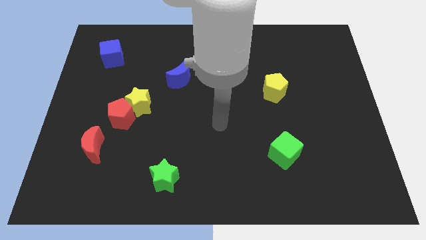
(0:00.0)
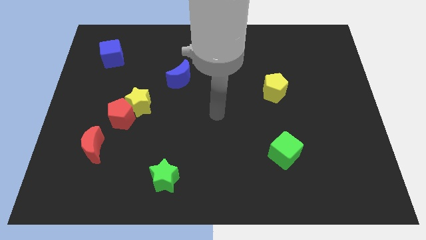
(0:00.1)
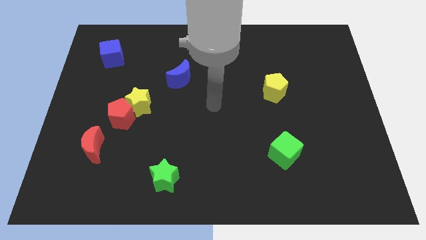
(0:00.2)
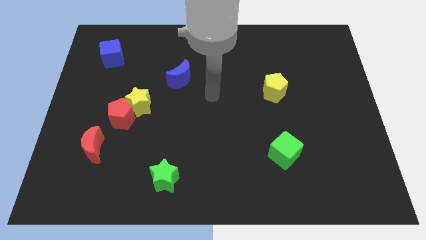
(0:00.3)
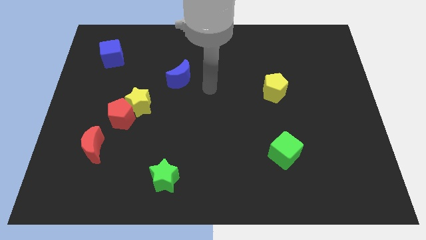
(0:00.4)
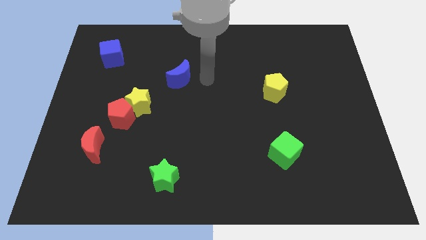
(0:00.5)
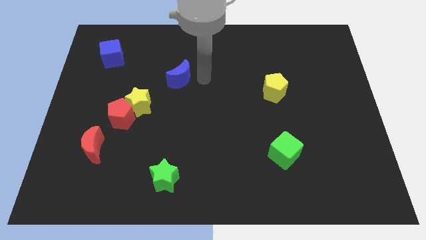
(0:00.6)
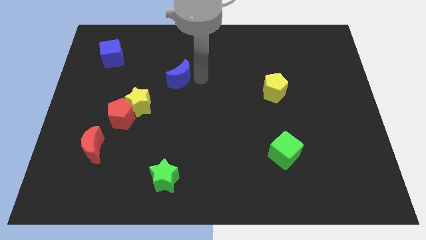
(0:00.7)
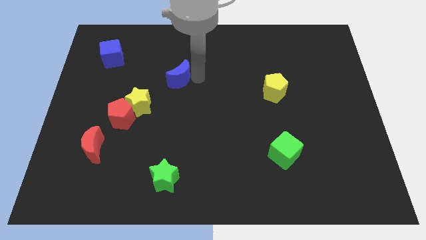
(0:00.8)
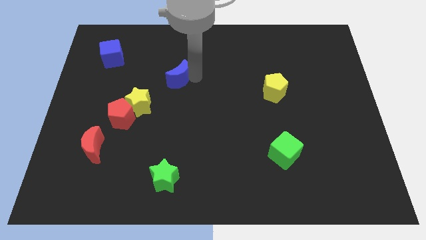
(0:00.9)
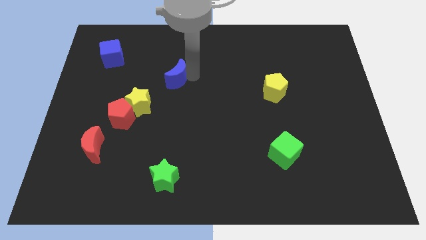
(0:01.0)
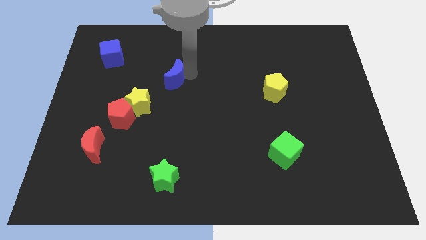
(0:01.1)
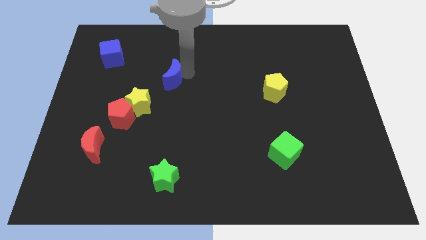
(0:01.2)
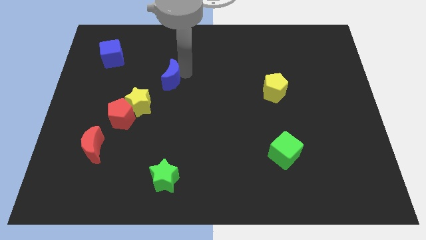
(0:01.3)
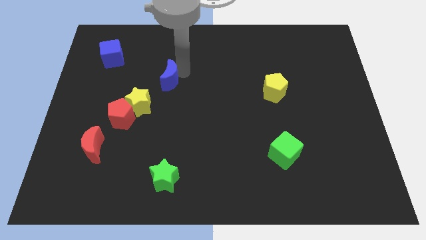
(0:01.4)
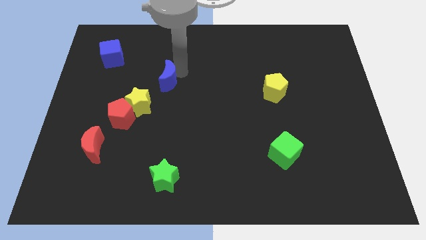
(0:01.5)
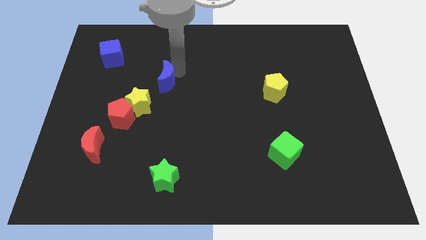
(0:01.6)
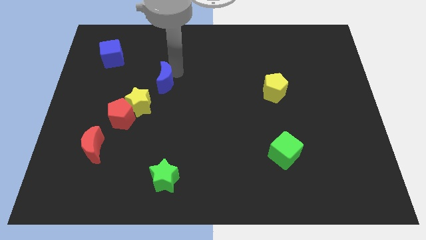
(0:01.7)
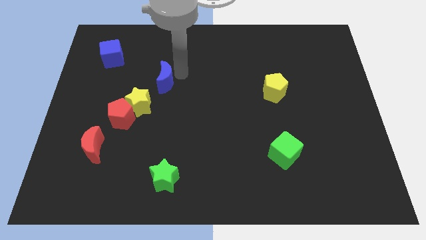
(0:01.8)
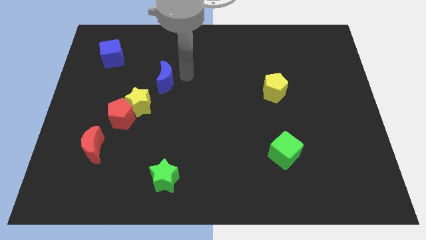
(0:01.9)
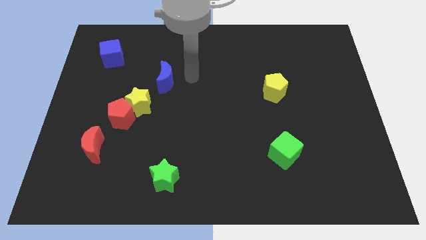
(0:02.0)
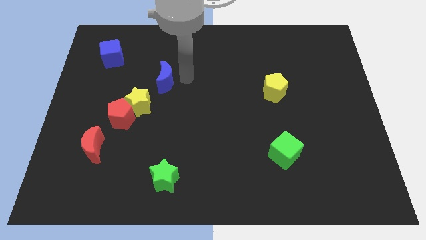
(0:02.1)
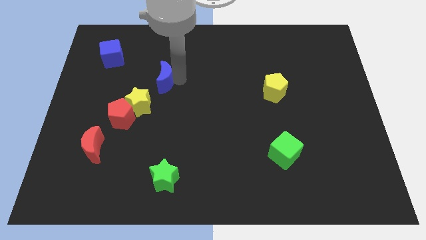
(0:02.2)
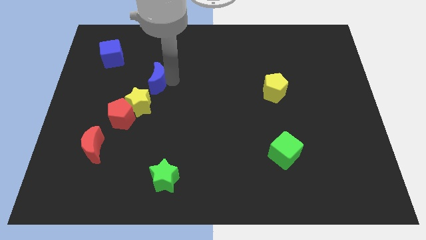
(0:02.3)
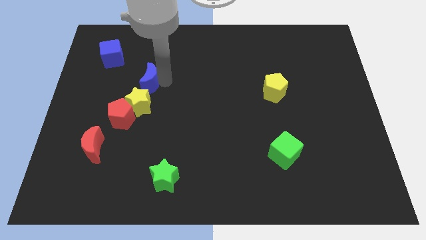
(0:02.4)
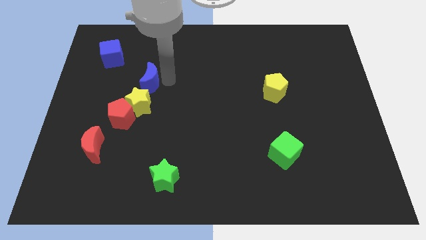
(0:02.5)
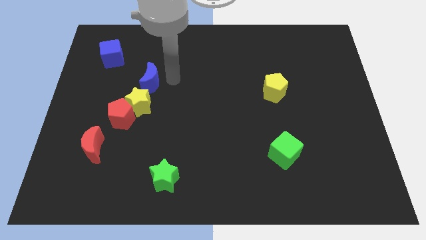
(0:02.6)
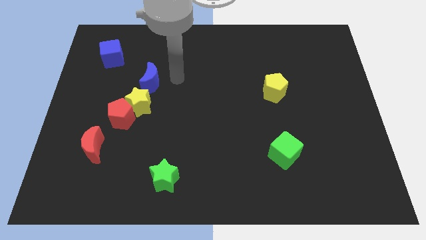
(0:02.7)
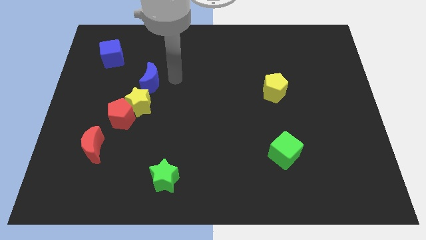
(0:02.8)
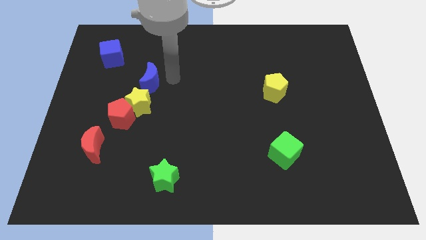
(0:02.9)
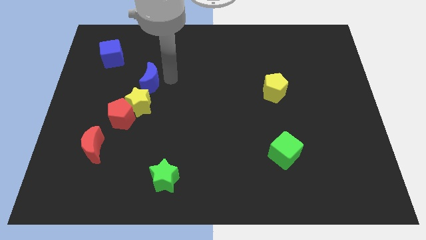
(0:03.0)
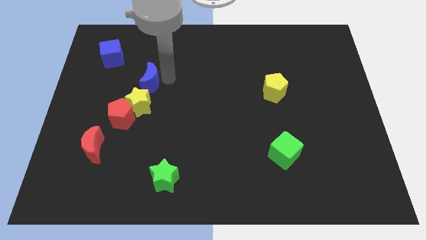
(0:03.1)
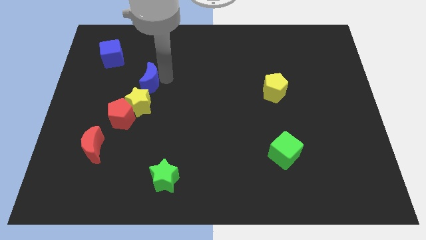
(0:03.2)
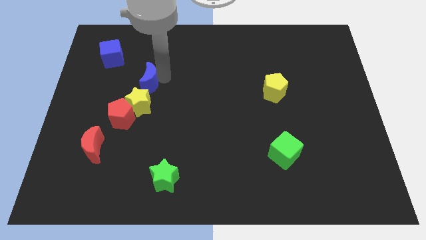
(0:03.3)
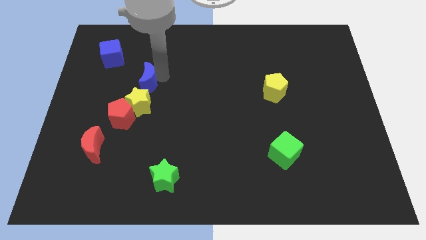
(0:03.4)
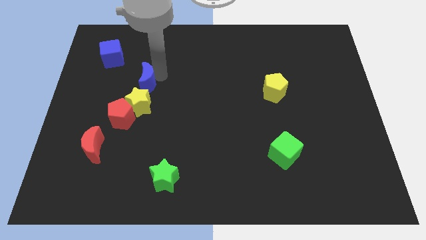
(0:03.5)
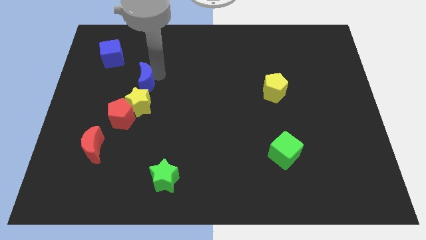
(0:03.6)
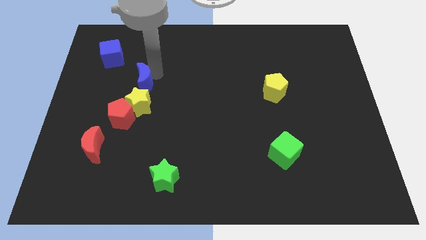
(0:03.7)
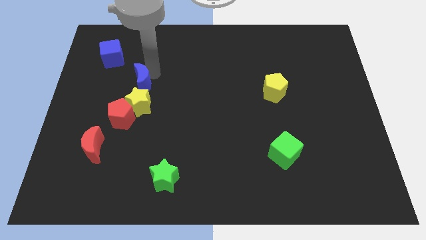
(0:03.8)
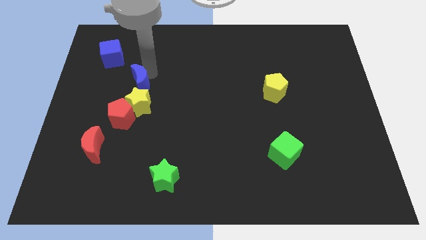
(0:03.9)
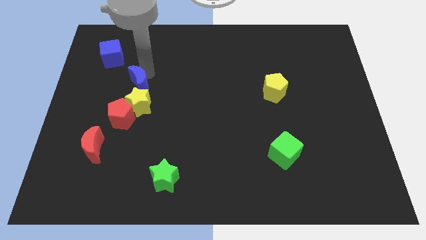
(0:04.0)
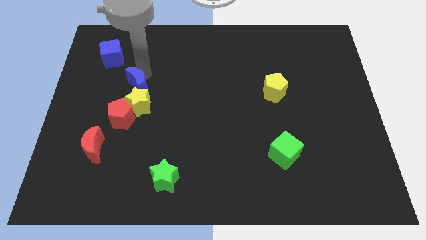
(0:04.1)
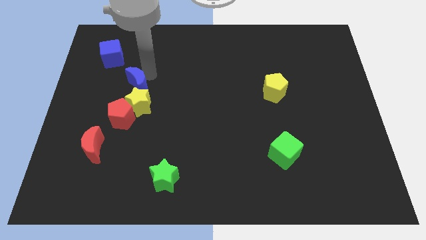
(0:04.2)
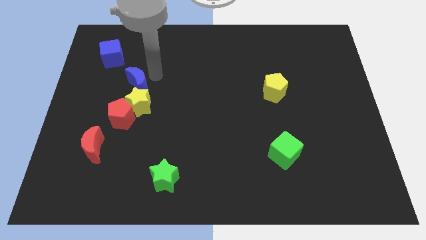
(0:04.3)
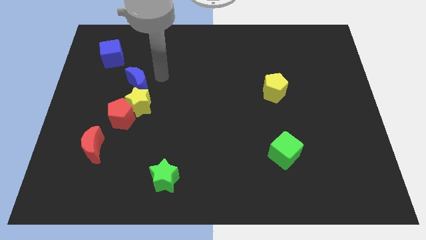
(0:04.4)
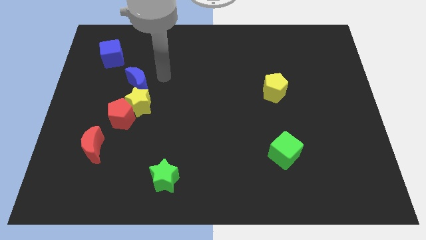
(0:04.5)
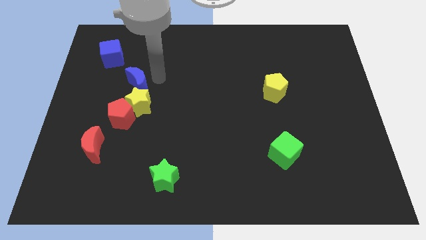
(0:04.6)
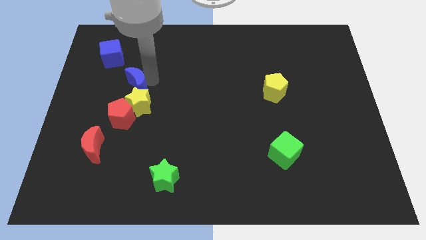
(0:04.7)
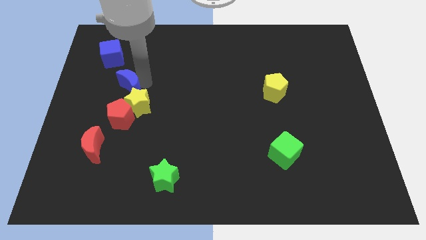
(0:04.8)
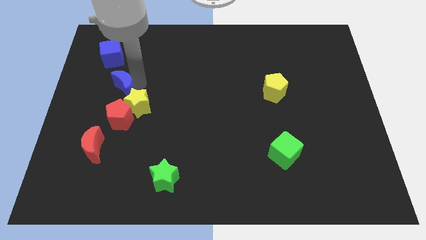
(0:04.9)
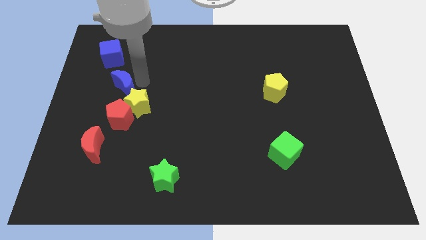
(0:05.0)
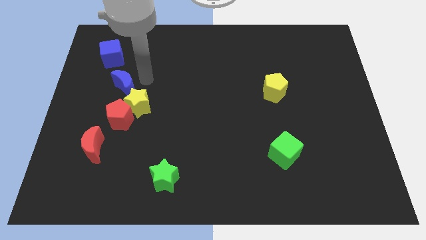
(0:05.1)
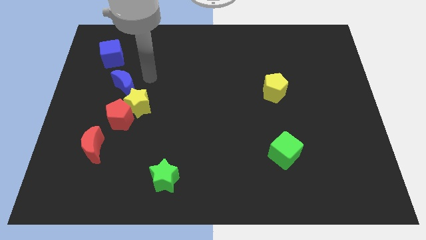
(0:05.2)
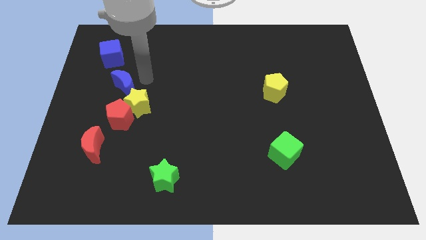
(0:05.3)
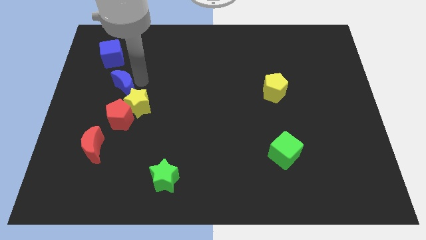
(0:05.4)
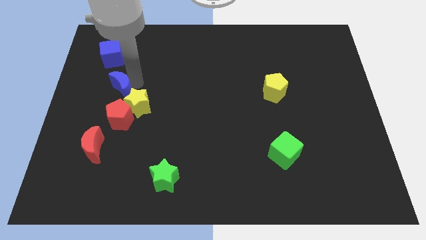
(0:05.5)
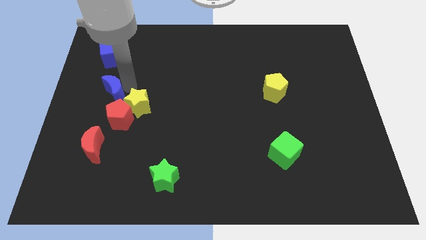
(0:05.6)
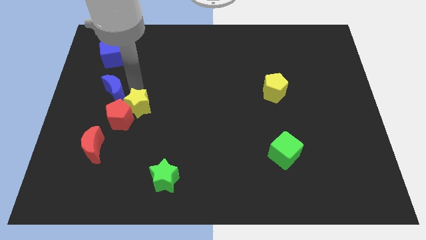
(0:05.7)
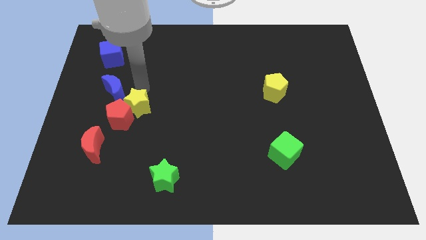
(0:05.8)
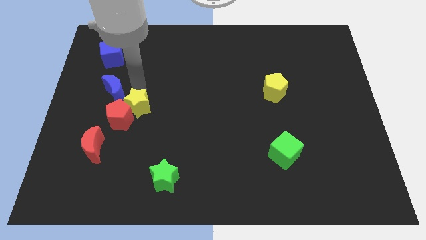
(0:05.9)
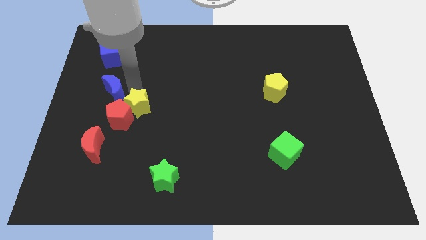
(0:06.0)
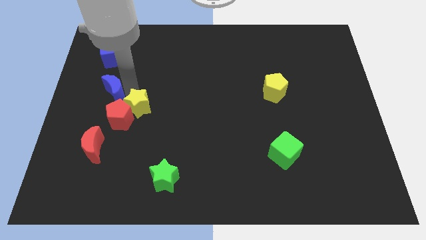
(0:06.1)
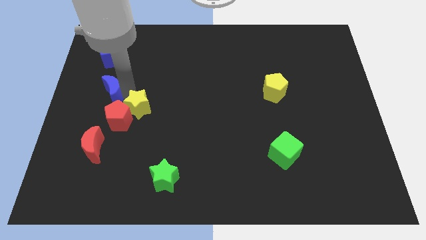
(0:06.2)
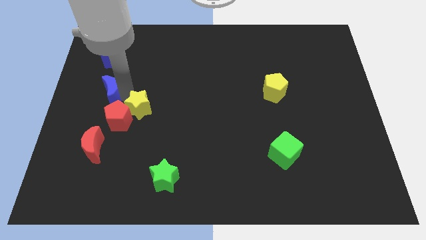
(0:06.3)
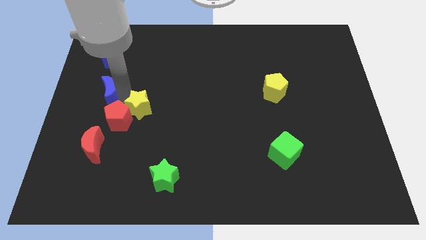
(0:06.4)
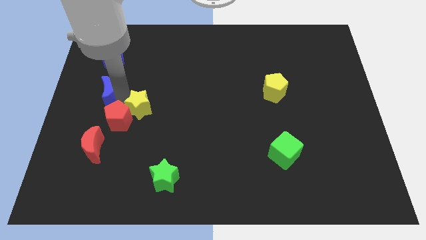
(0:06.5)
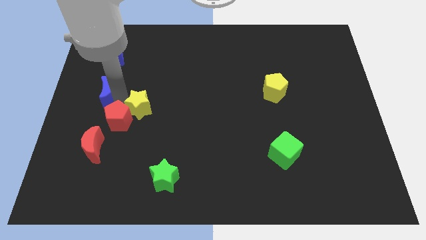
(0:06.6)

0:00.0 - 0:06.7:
push the blue moon to the left side

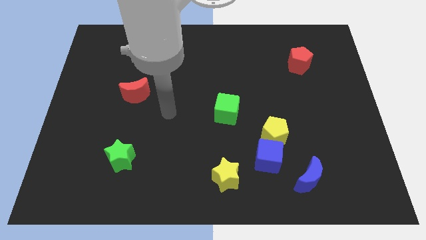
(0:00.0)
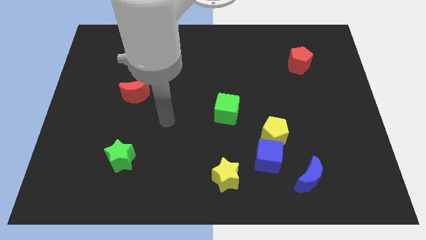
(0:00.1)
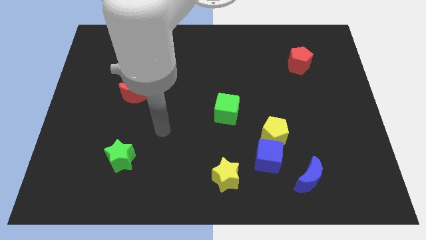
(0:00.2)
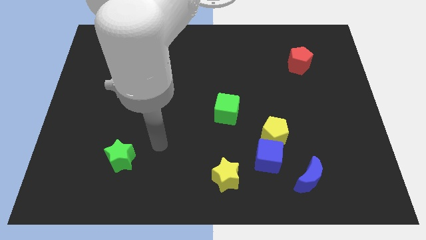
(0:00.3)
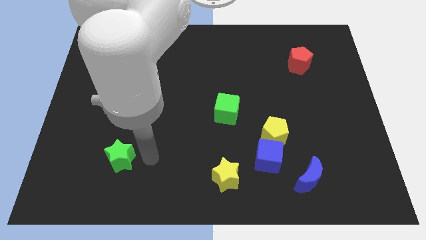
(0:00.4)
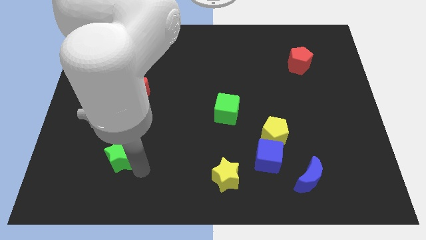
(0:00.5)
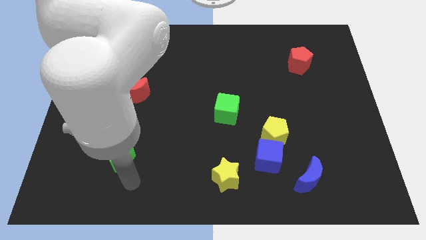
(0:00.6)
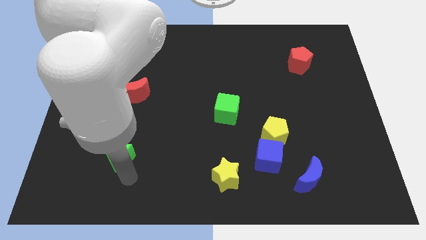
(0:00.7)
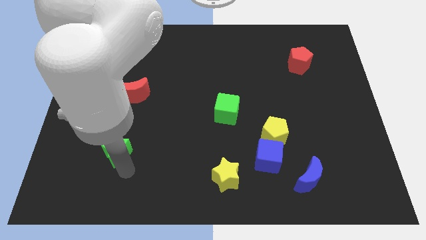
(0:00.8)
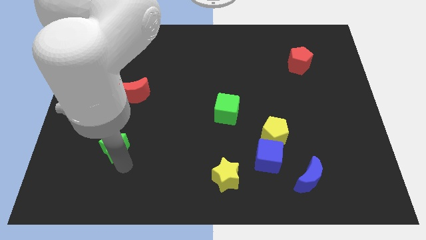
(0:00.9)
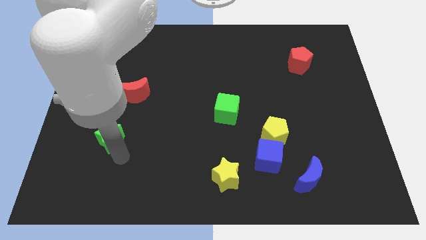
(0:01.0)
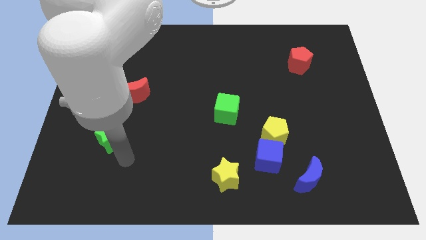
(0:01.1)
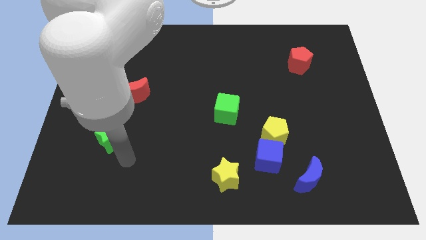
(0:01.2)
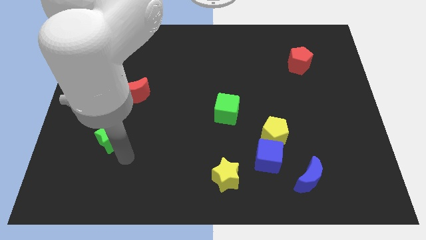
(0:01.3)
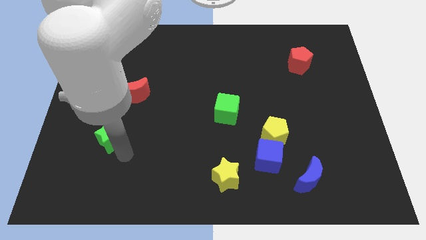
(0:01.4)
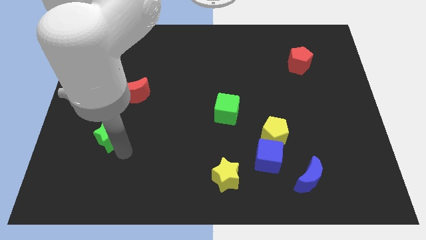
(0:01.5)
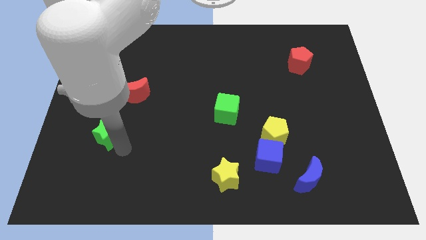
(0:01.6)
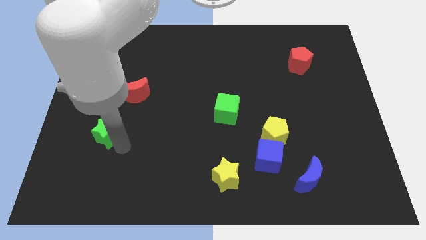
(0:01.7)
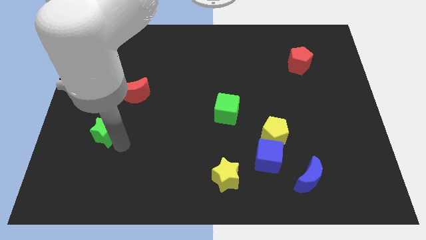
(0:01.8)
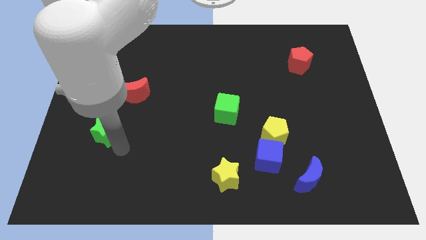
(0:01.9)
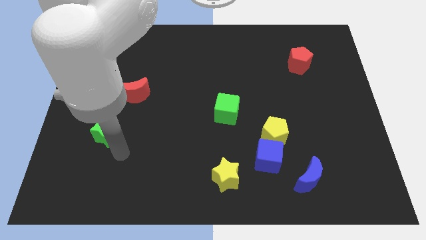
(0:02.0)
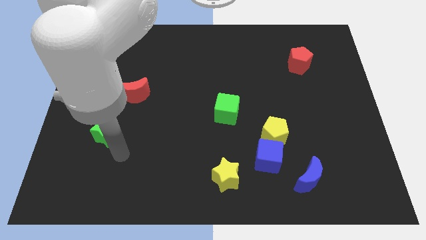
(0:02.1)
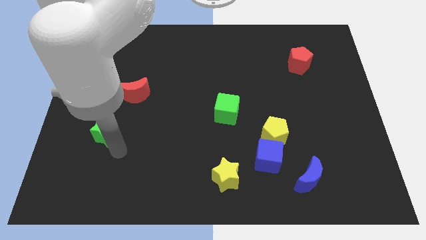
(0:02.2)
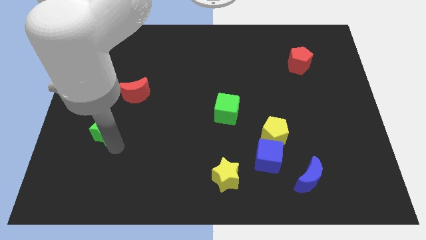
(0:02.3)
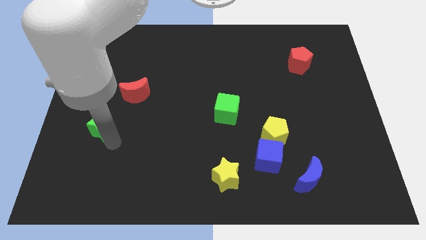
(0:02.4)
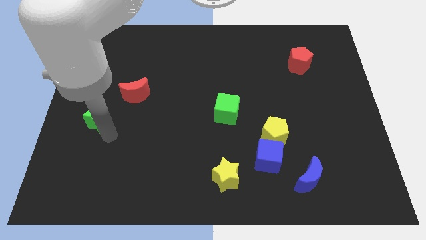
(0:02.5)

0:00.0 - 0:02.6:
push the green star to the left side of the board
